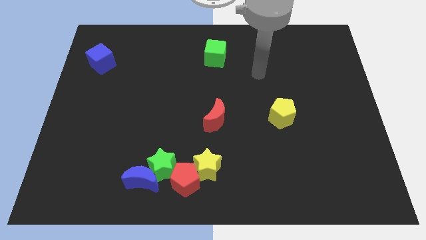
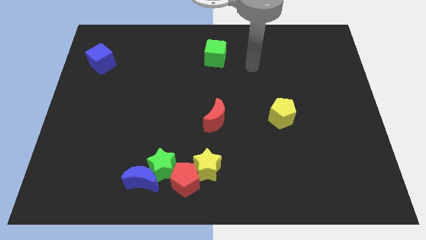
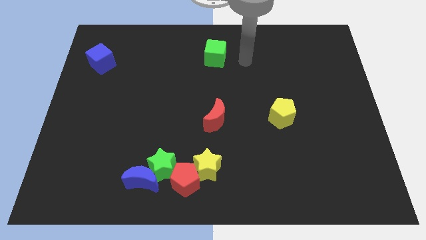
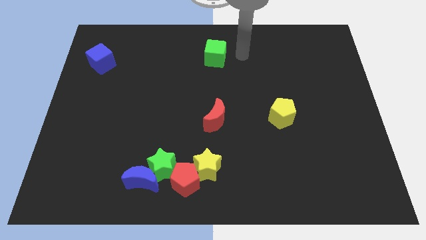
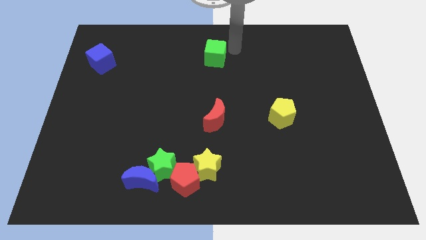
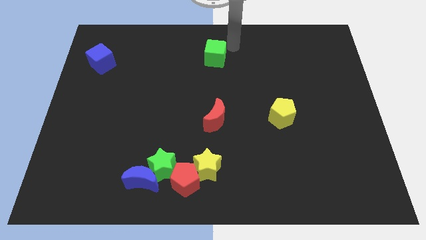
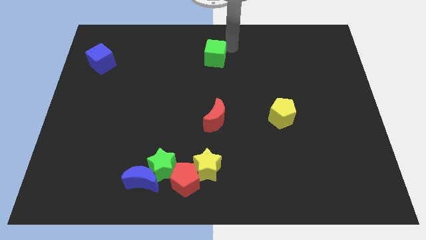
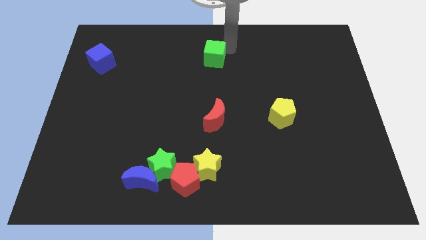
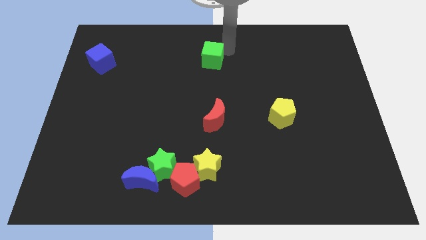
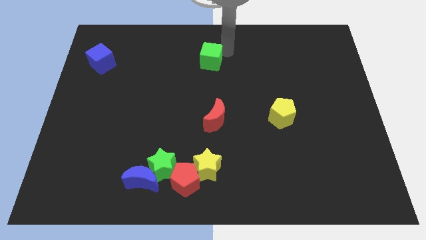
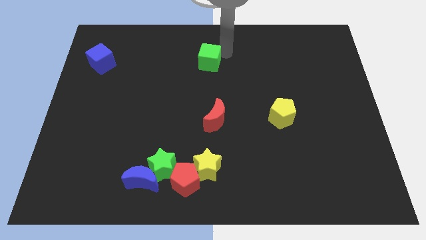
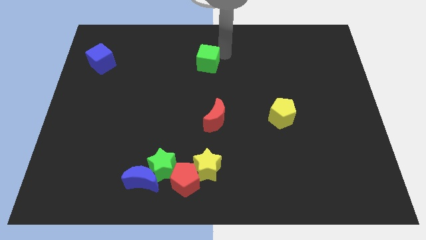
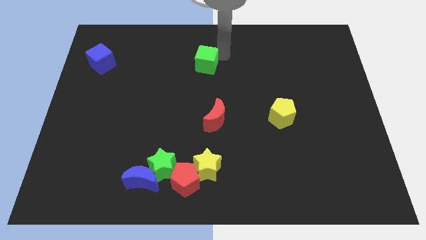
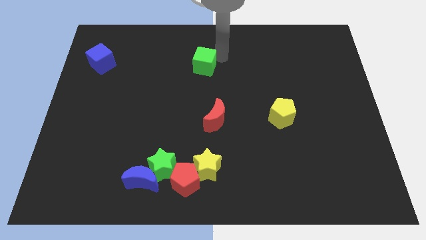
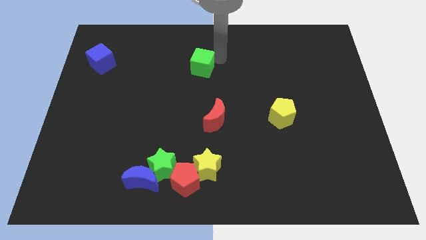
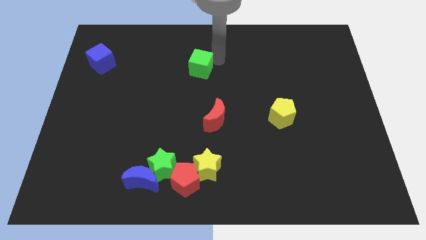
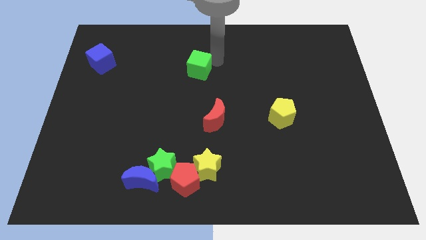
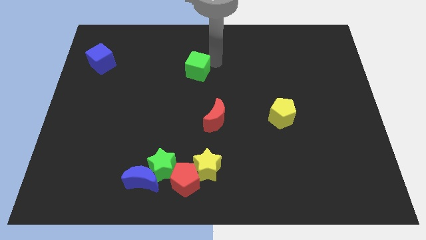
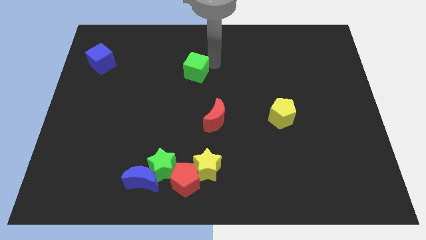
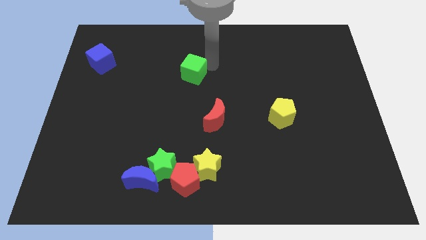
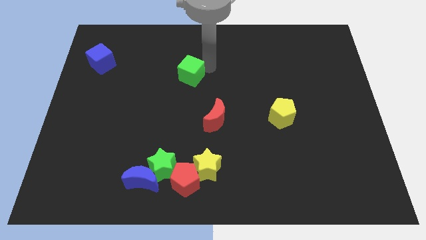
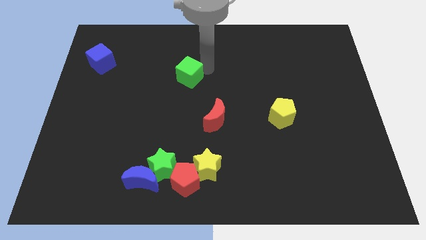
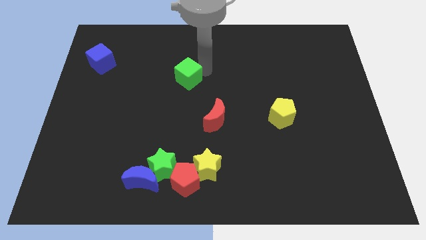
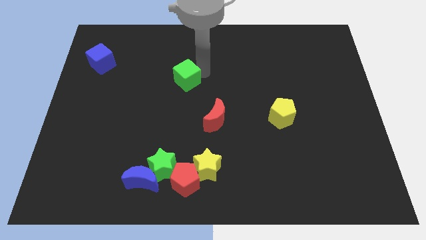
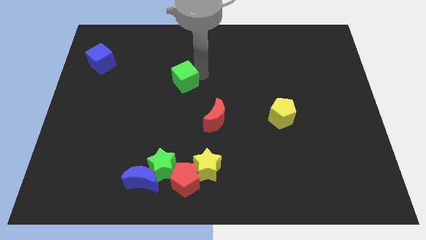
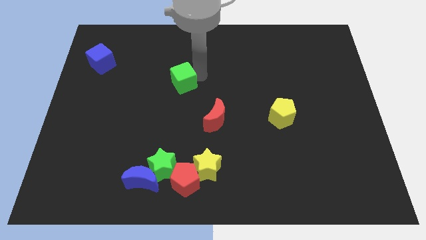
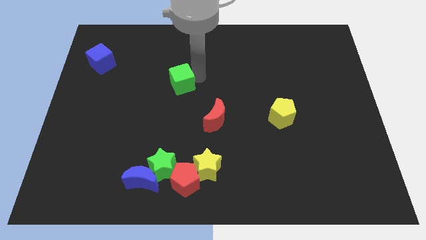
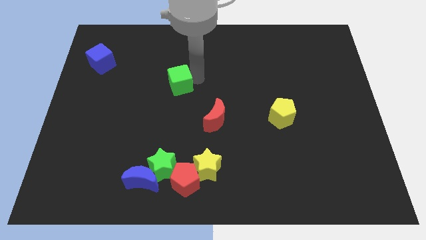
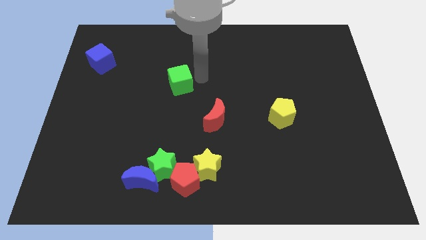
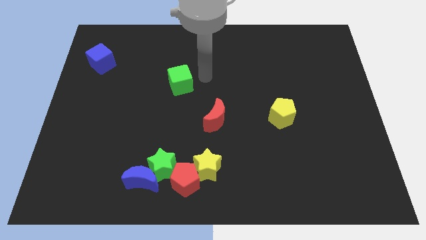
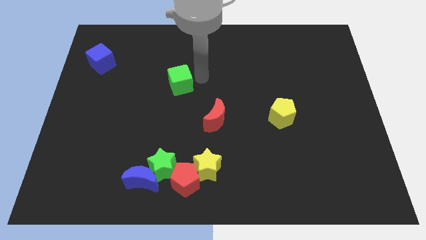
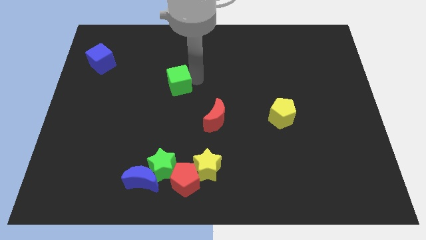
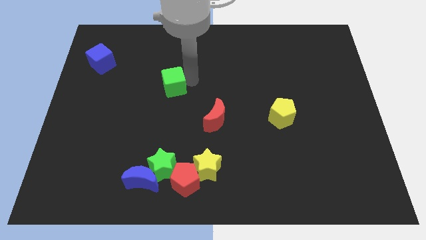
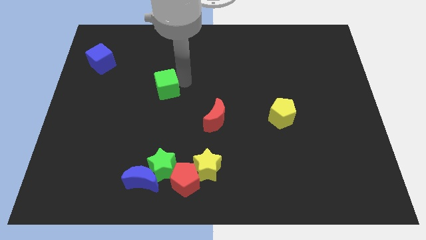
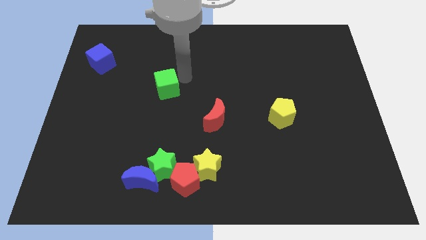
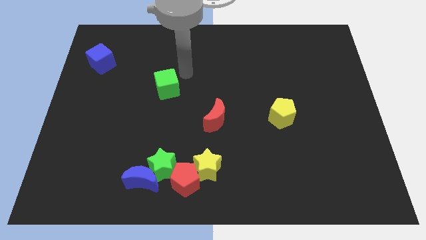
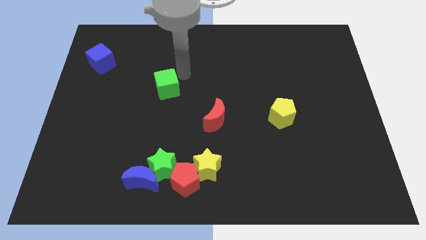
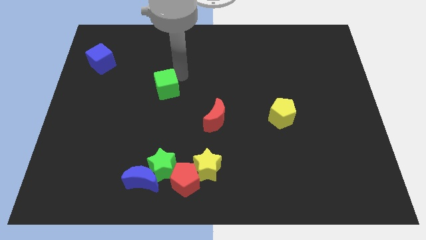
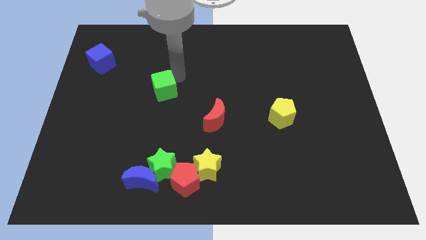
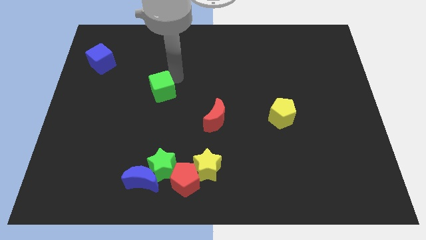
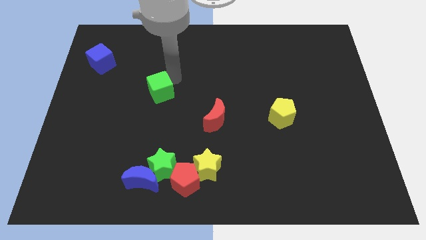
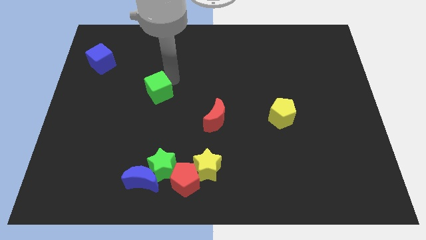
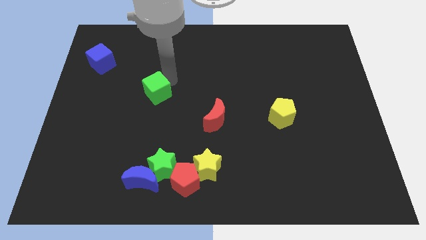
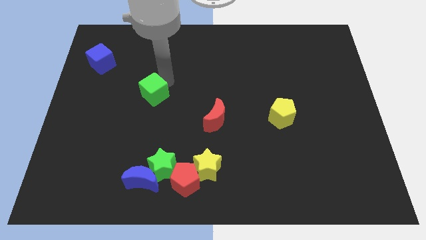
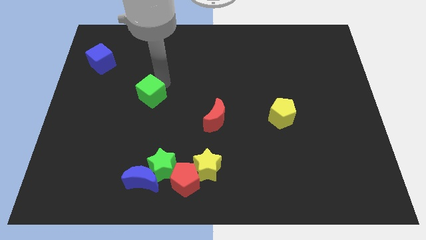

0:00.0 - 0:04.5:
slide the green cube downwards and then left

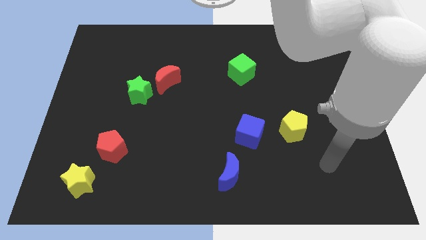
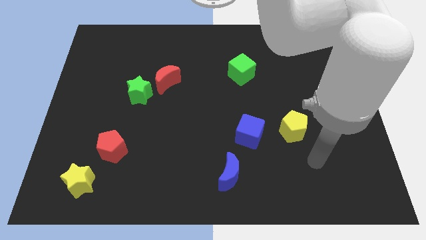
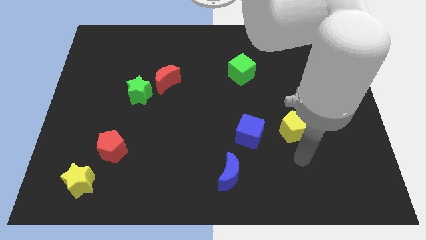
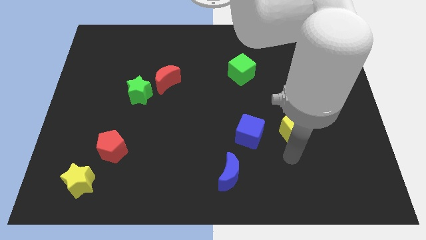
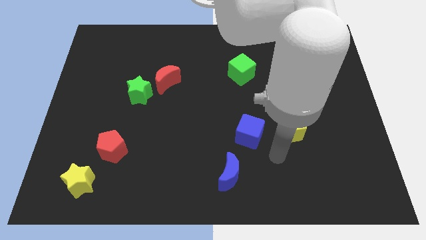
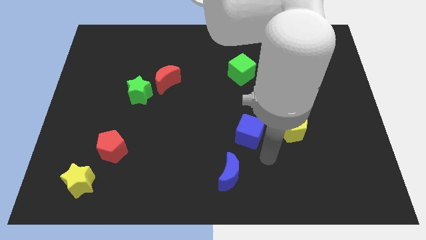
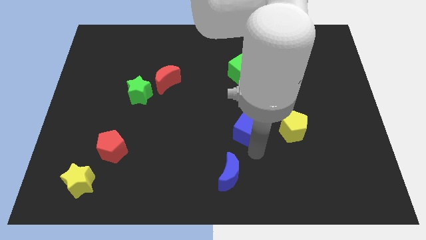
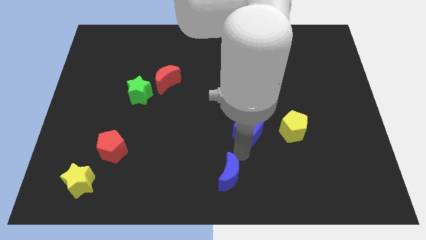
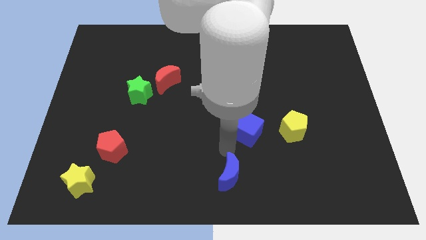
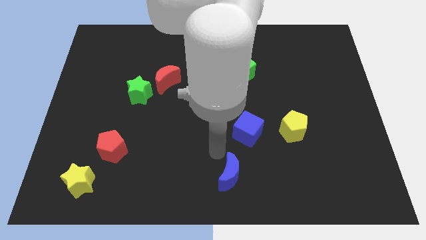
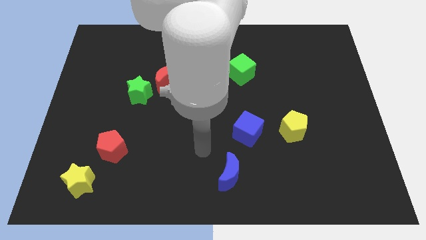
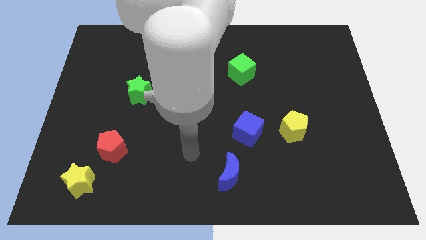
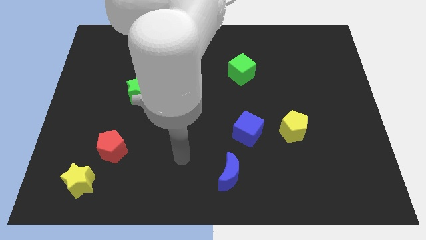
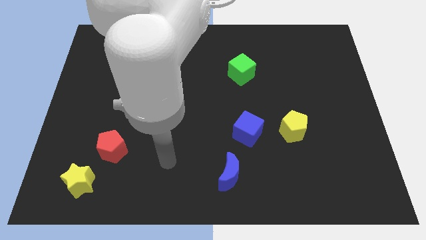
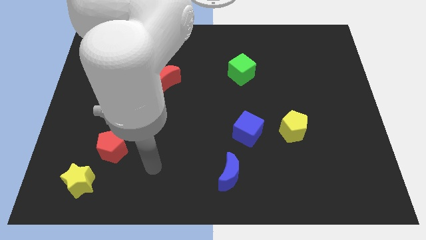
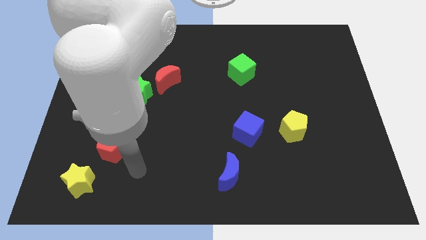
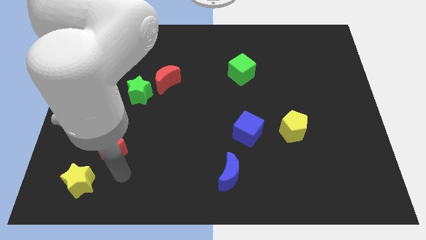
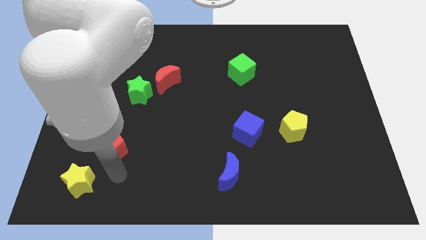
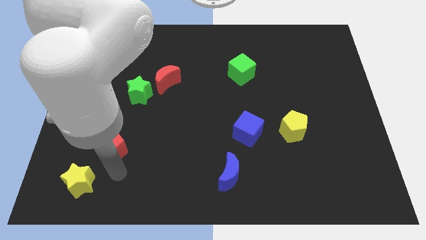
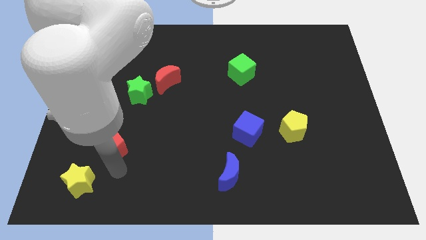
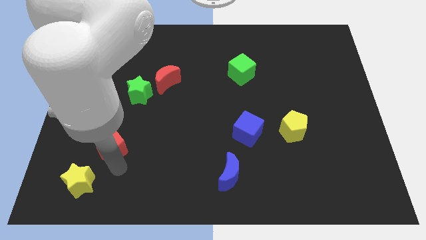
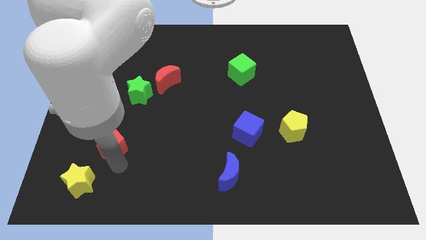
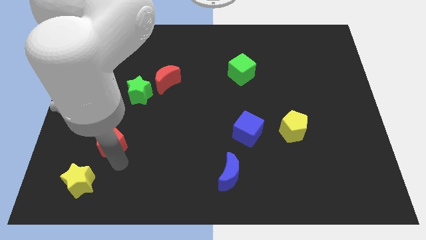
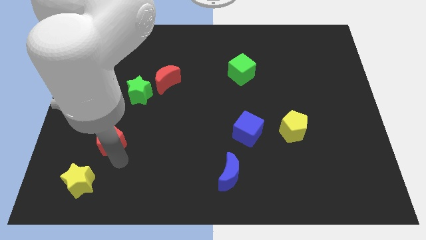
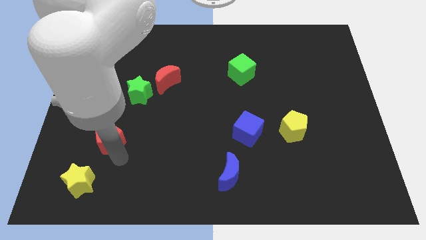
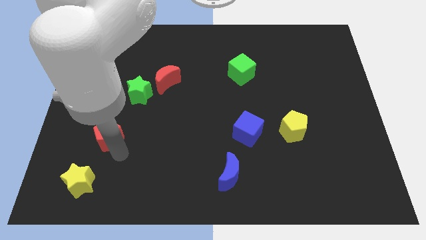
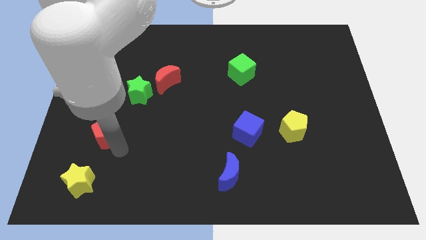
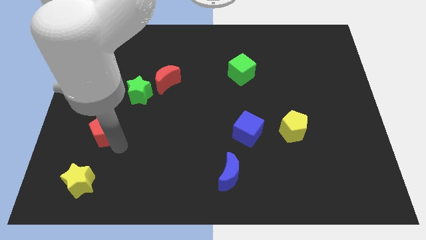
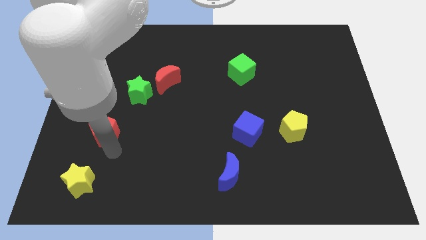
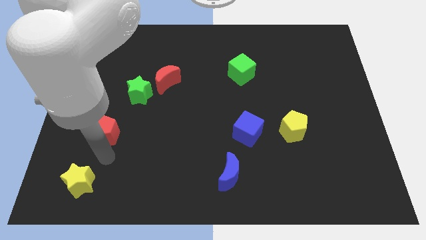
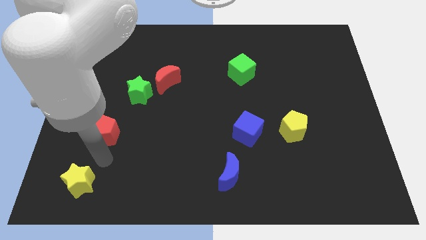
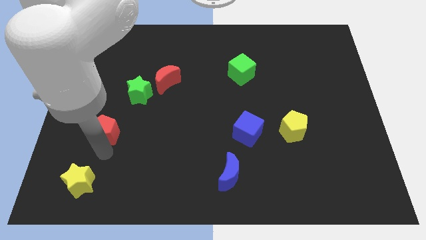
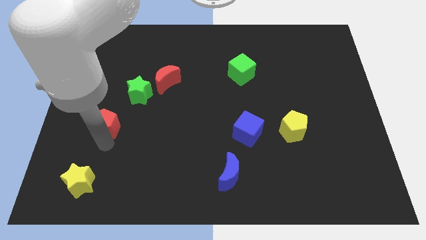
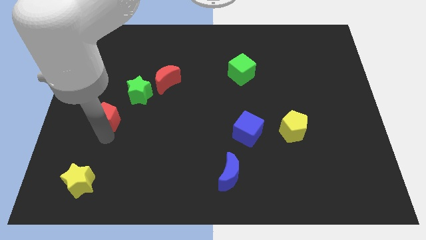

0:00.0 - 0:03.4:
slide the red pentagon upwards slightly

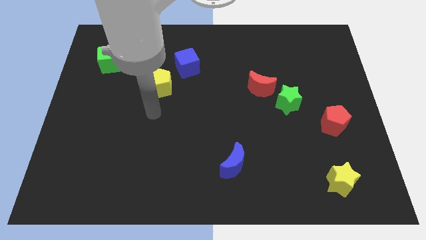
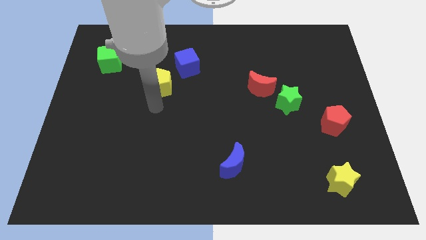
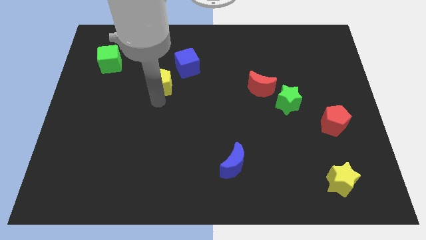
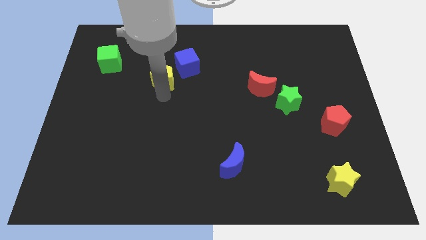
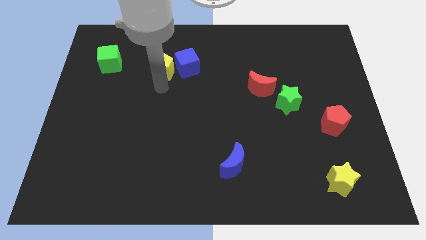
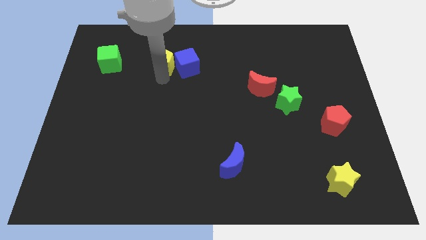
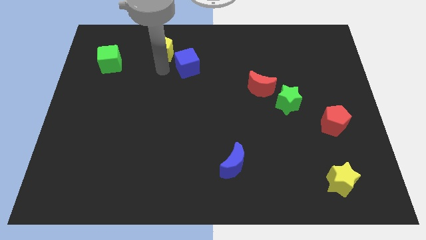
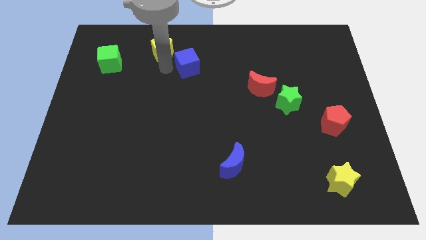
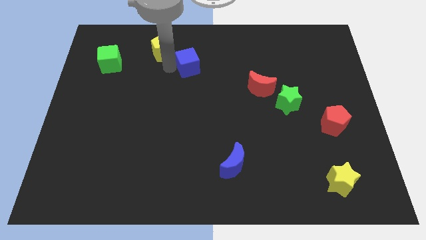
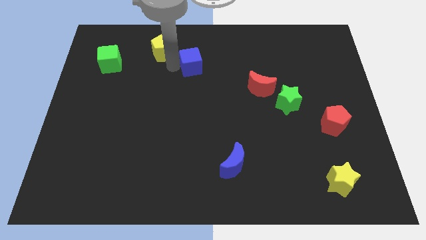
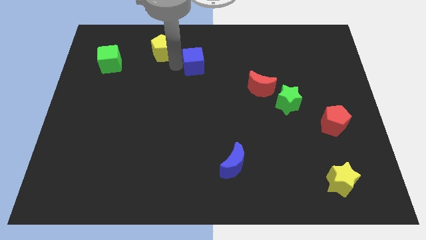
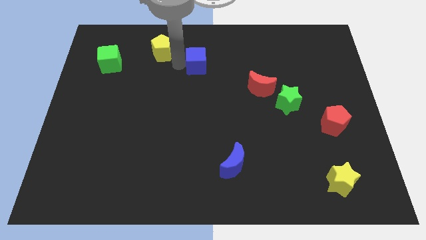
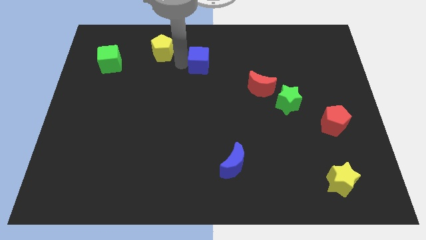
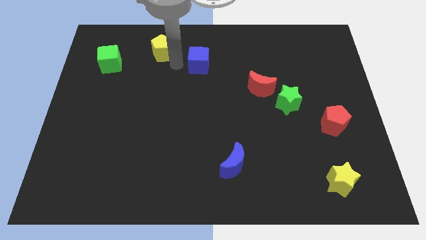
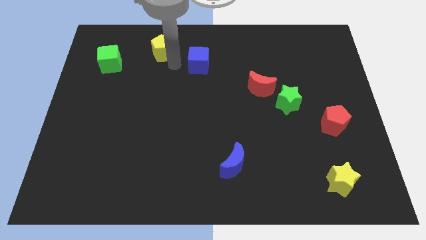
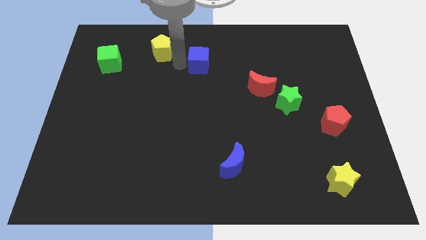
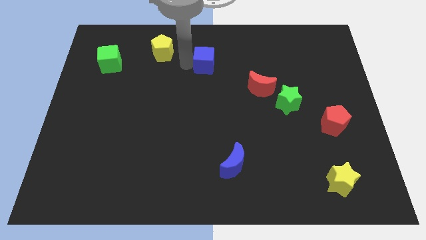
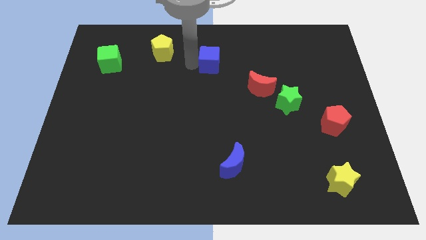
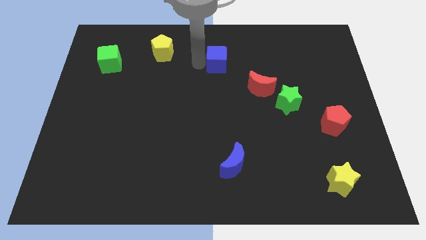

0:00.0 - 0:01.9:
move the blue cube a little right
